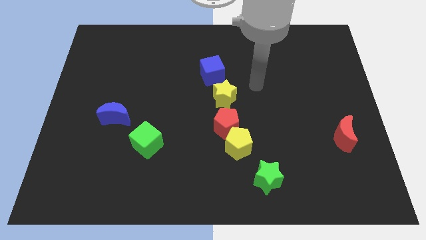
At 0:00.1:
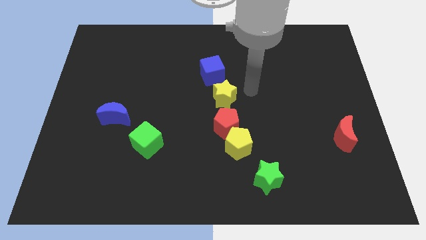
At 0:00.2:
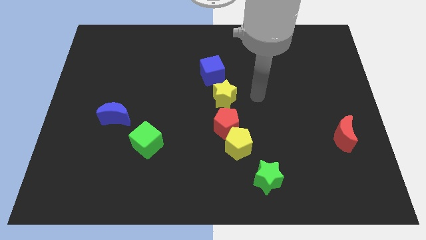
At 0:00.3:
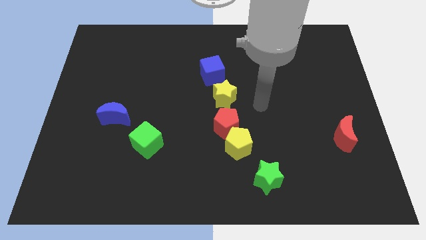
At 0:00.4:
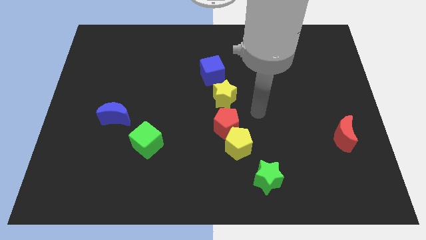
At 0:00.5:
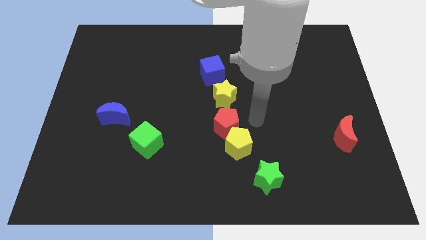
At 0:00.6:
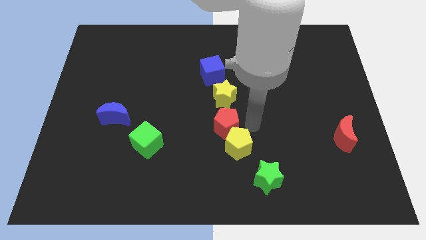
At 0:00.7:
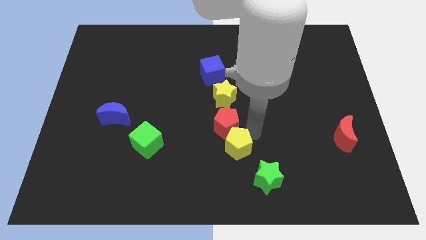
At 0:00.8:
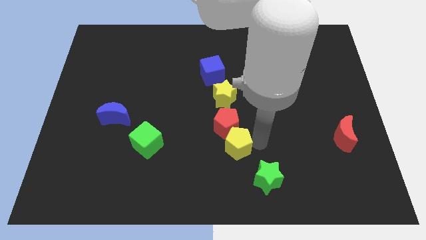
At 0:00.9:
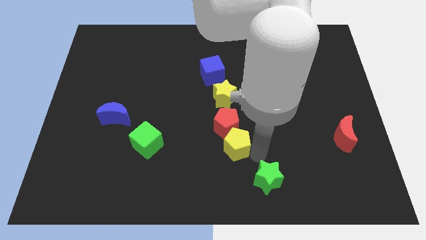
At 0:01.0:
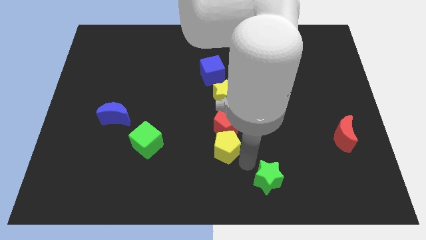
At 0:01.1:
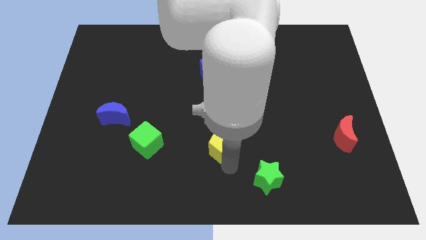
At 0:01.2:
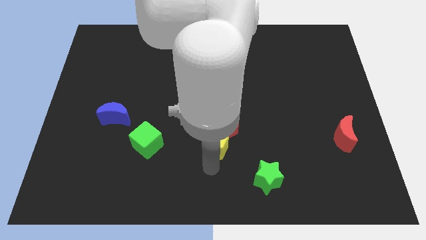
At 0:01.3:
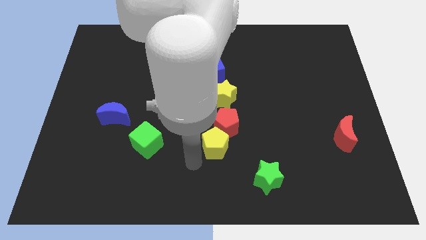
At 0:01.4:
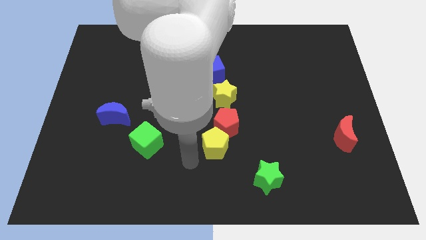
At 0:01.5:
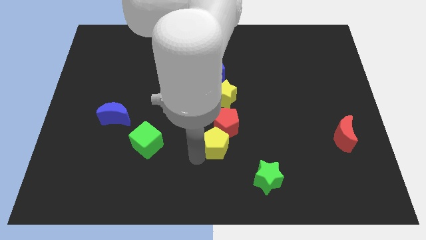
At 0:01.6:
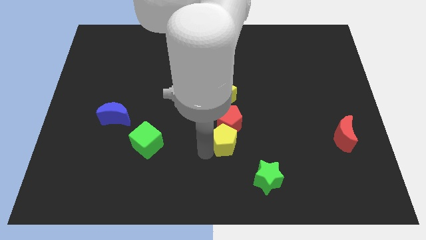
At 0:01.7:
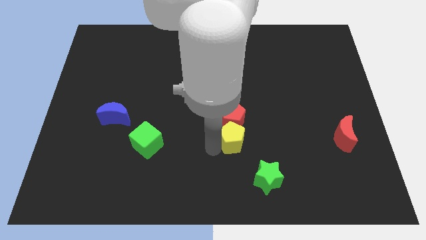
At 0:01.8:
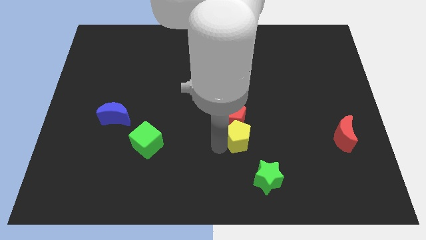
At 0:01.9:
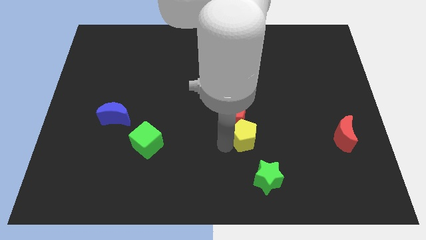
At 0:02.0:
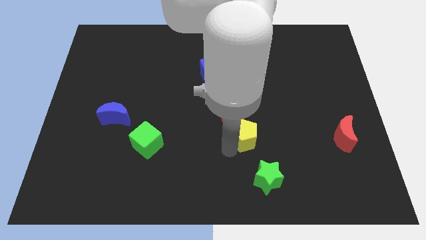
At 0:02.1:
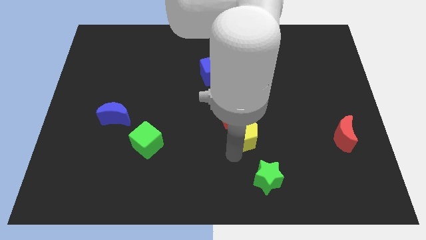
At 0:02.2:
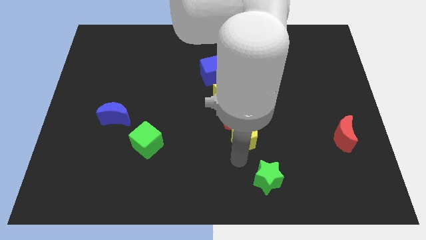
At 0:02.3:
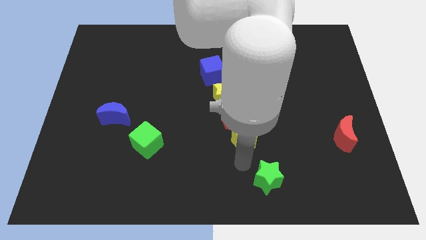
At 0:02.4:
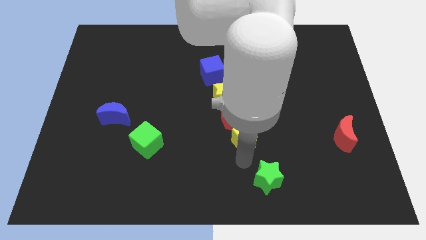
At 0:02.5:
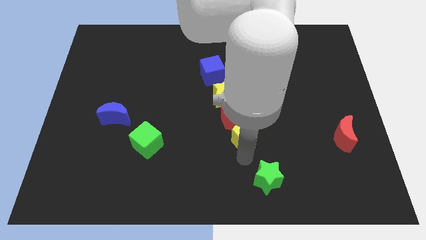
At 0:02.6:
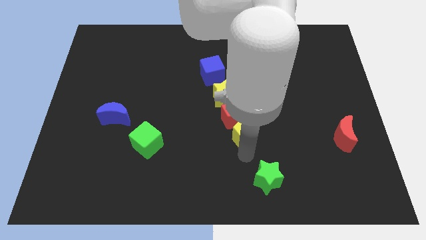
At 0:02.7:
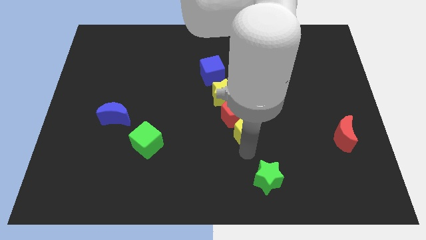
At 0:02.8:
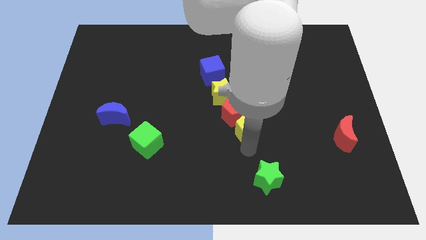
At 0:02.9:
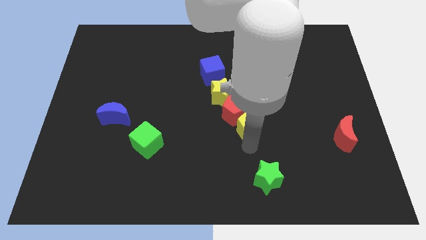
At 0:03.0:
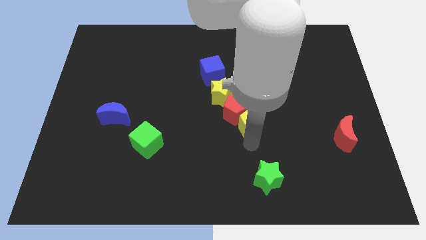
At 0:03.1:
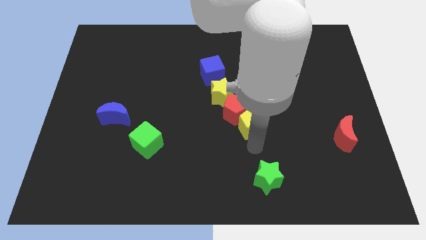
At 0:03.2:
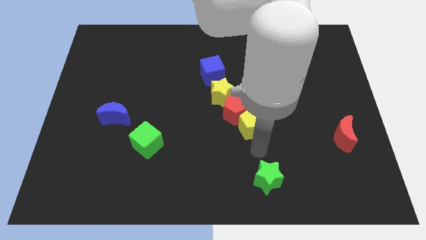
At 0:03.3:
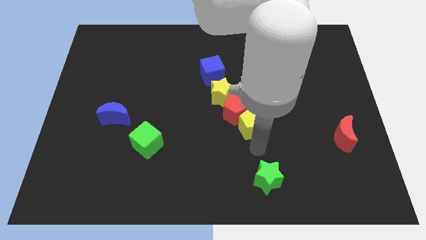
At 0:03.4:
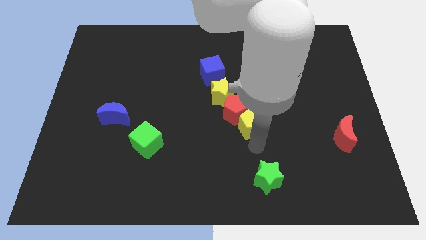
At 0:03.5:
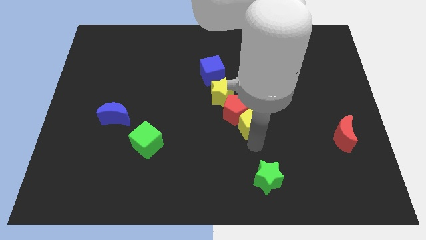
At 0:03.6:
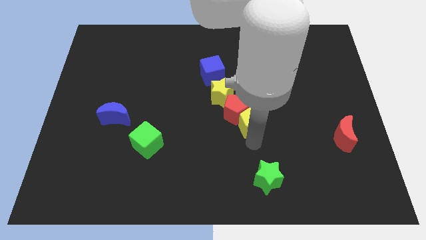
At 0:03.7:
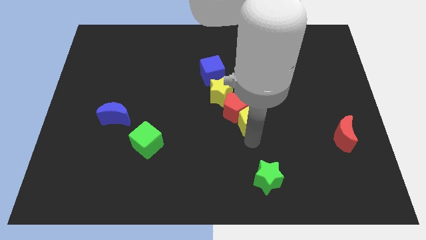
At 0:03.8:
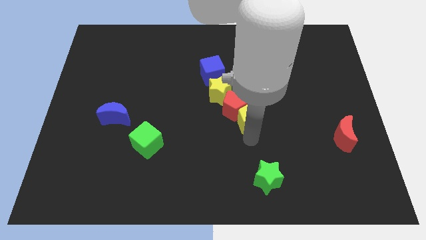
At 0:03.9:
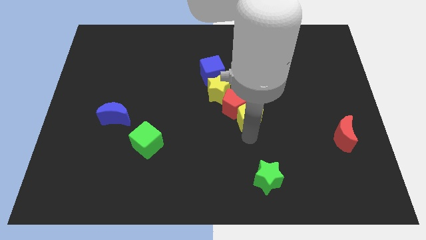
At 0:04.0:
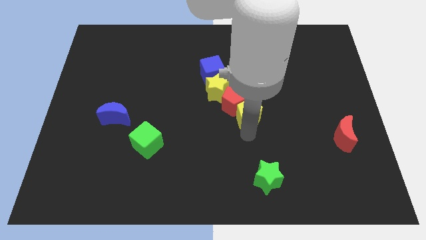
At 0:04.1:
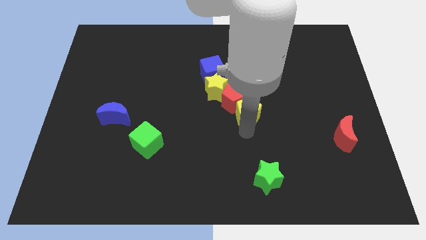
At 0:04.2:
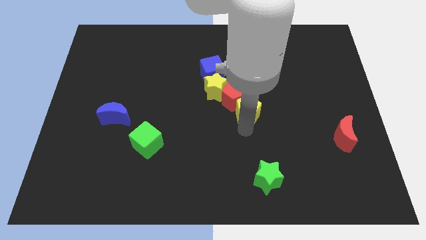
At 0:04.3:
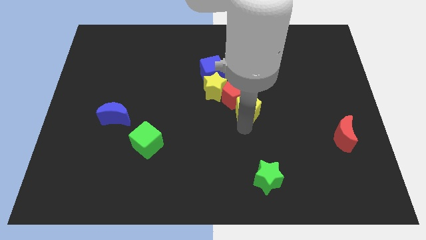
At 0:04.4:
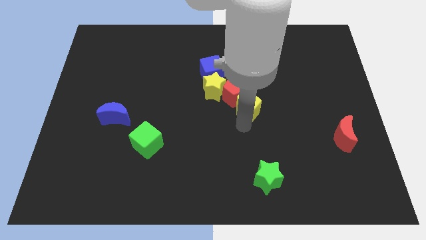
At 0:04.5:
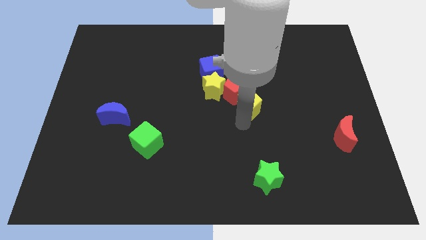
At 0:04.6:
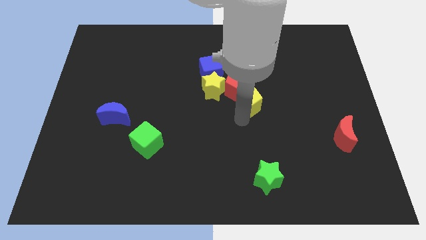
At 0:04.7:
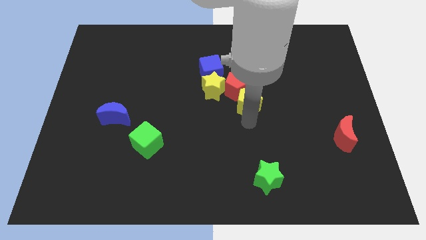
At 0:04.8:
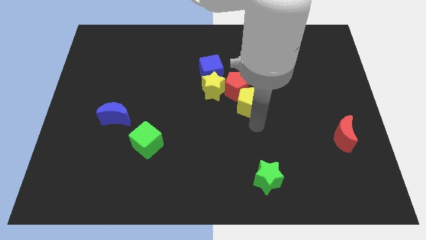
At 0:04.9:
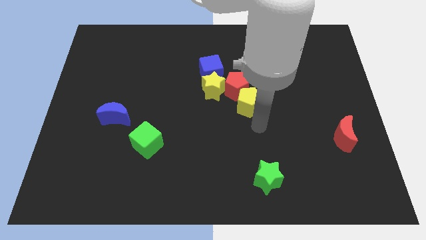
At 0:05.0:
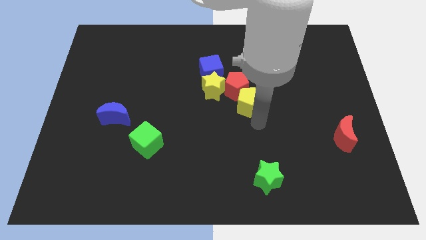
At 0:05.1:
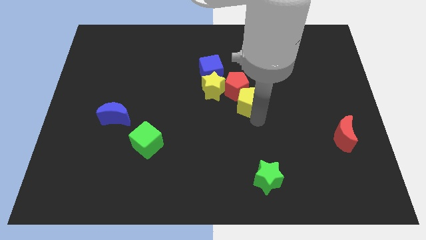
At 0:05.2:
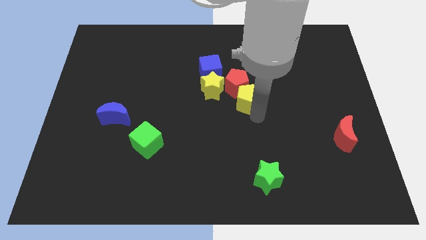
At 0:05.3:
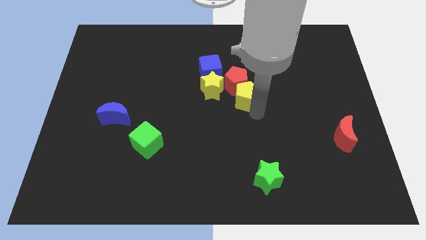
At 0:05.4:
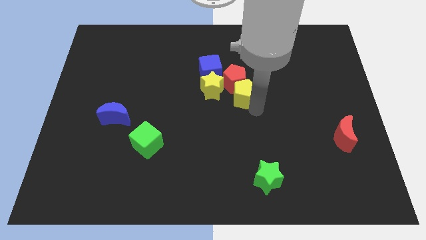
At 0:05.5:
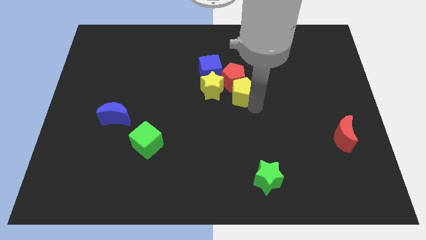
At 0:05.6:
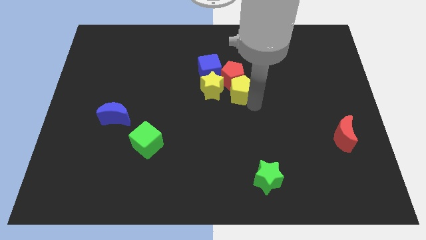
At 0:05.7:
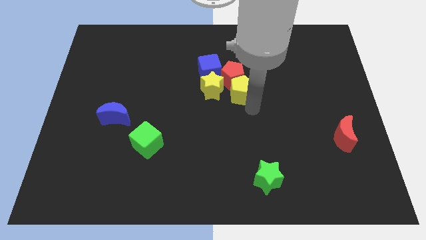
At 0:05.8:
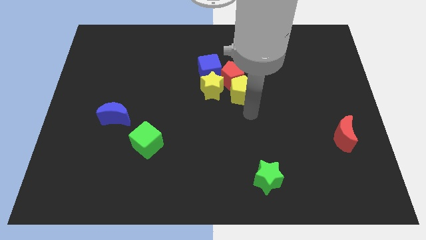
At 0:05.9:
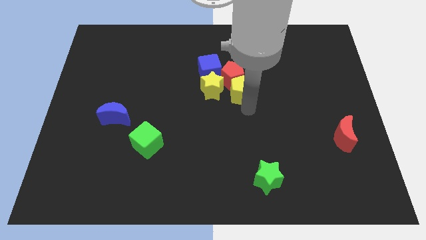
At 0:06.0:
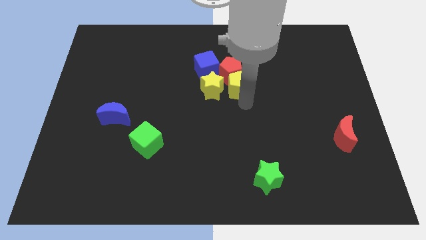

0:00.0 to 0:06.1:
slide the yellow pentagon to the top right of the yellow star
